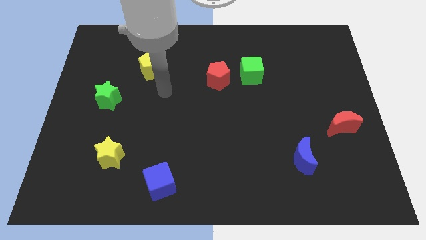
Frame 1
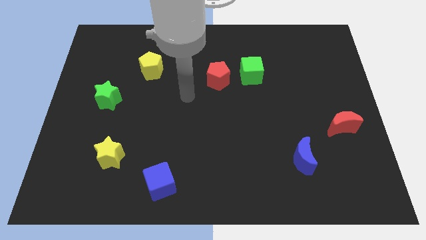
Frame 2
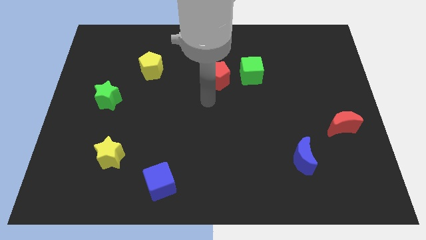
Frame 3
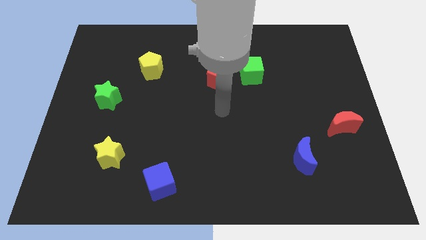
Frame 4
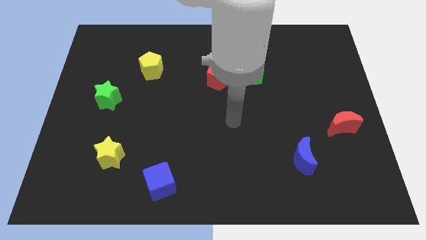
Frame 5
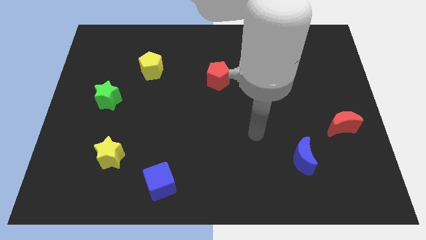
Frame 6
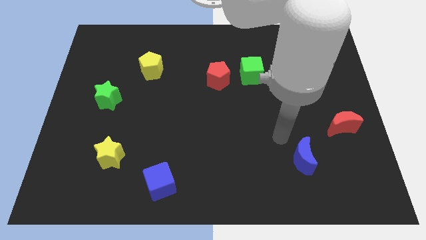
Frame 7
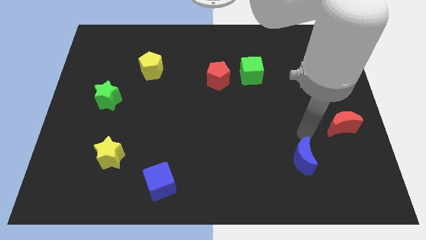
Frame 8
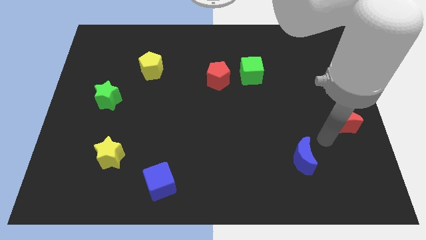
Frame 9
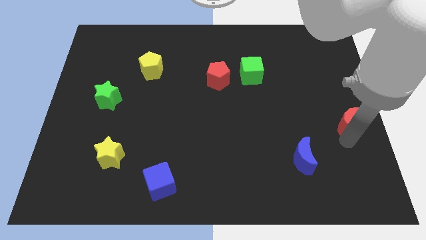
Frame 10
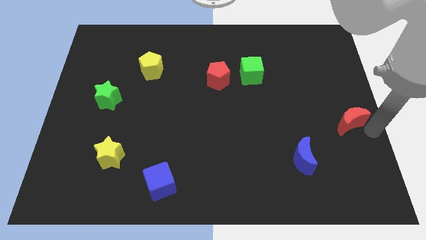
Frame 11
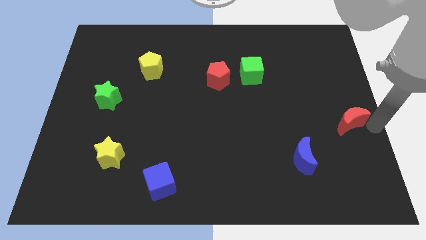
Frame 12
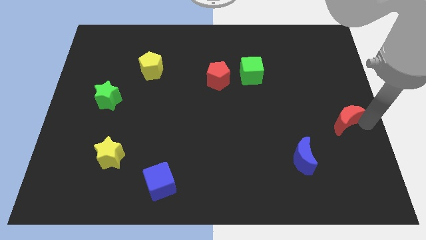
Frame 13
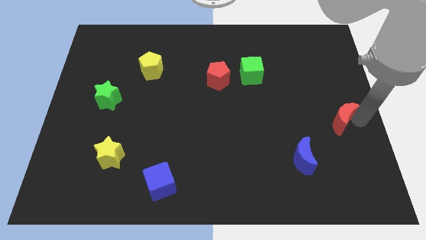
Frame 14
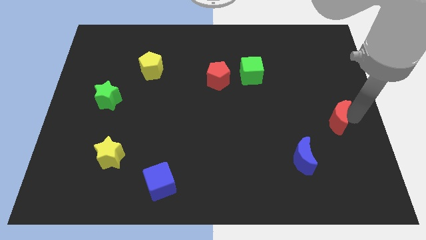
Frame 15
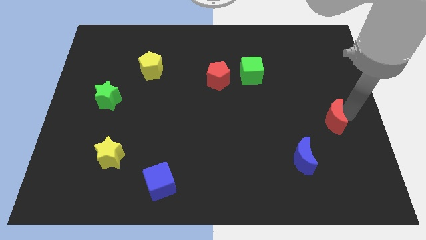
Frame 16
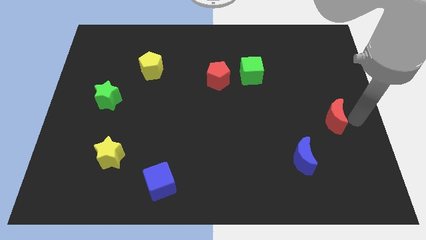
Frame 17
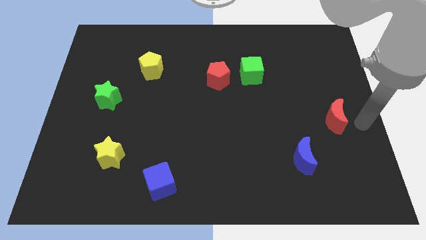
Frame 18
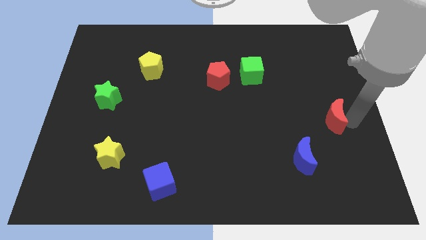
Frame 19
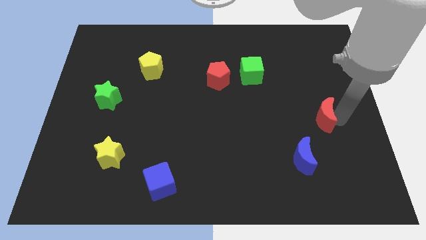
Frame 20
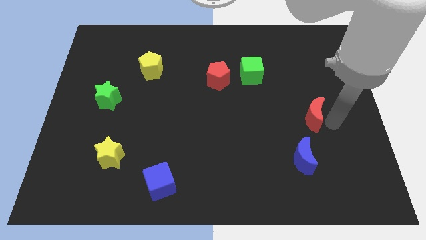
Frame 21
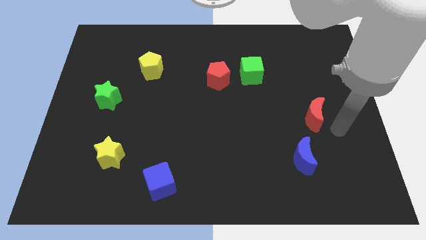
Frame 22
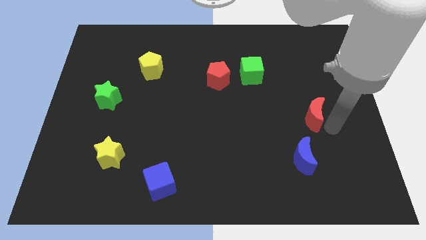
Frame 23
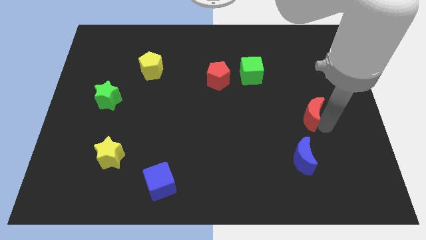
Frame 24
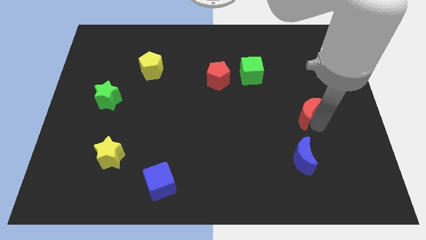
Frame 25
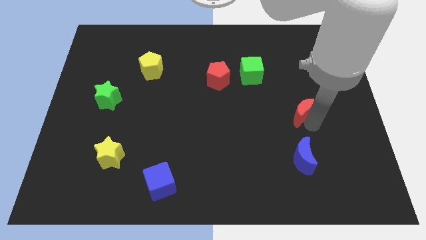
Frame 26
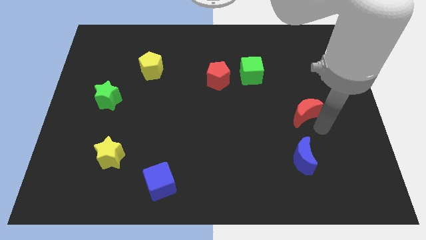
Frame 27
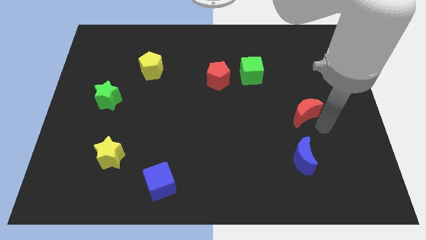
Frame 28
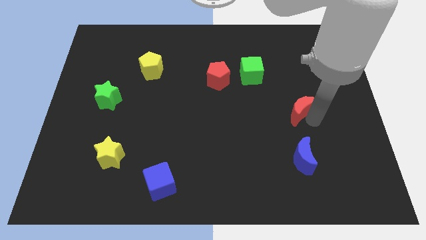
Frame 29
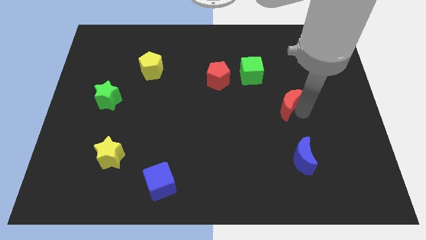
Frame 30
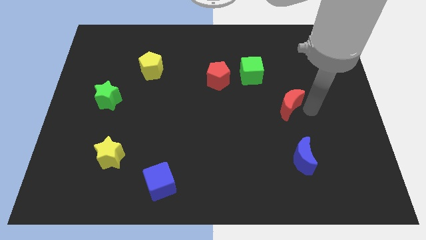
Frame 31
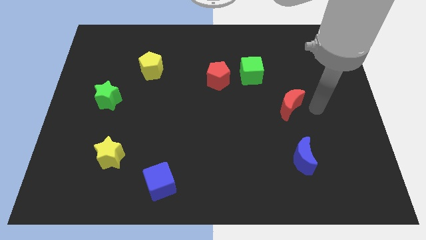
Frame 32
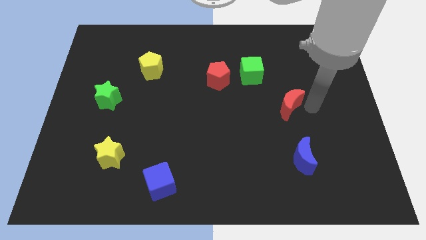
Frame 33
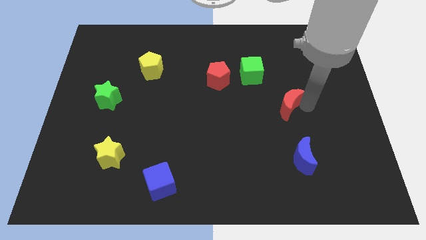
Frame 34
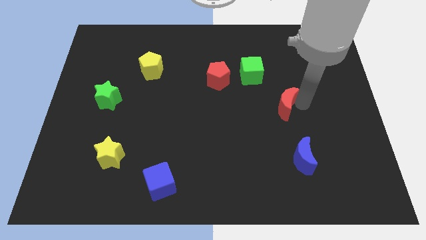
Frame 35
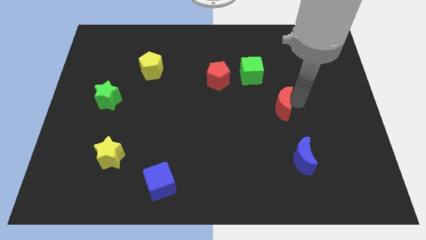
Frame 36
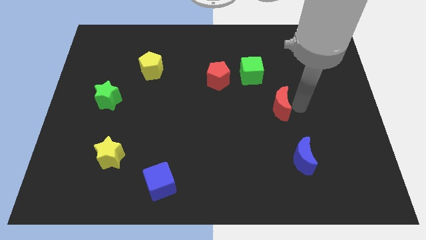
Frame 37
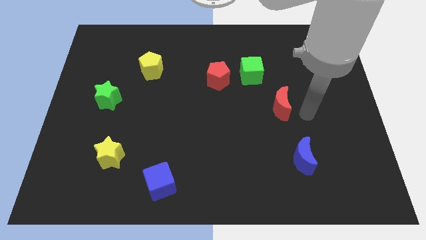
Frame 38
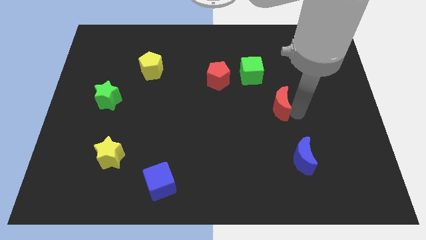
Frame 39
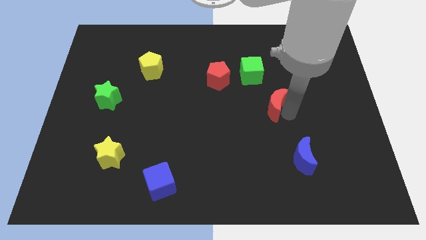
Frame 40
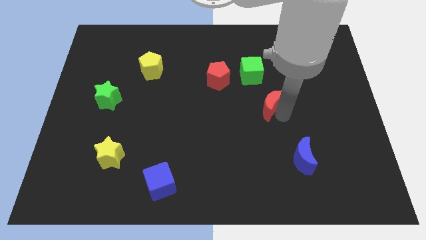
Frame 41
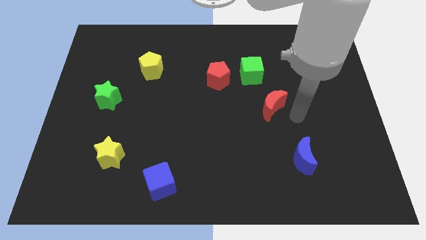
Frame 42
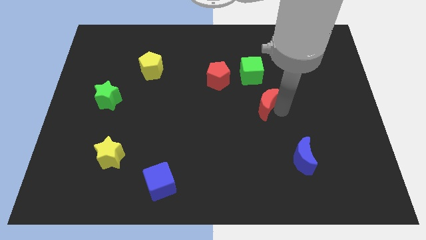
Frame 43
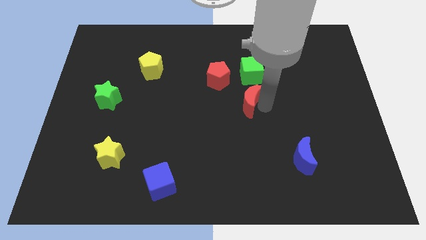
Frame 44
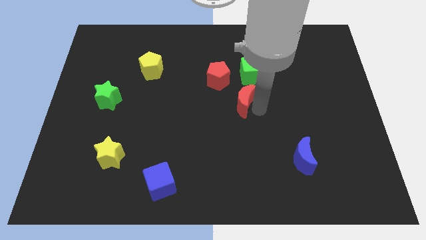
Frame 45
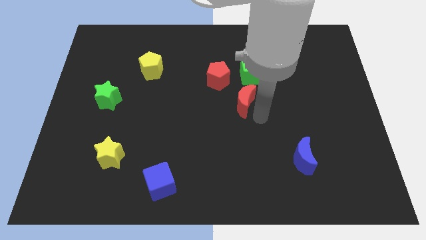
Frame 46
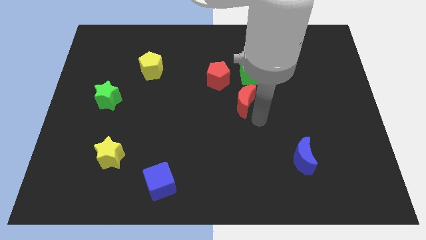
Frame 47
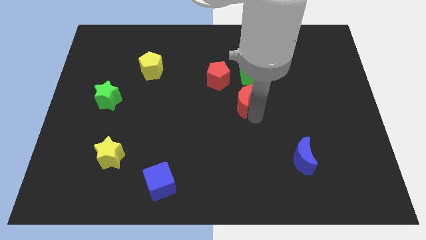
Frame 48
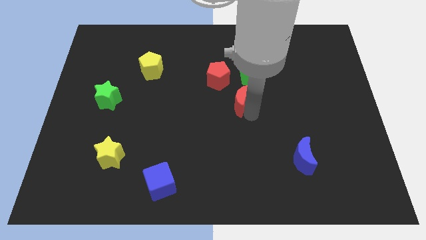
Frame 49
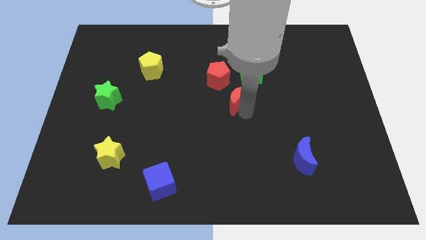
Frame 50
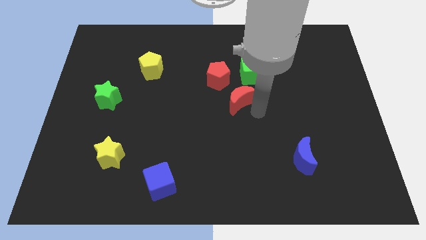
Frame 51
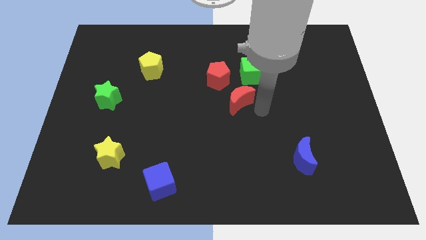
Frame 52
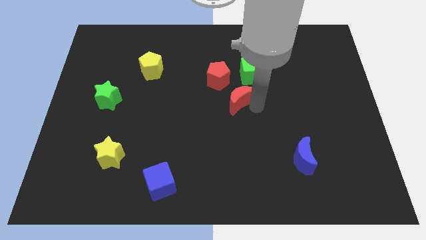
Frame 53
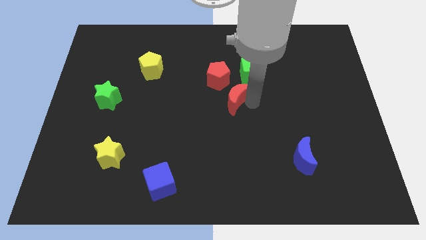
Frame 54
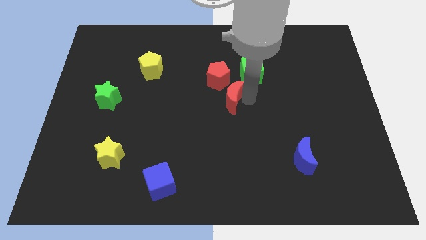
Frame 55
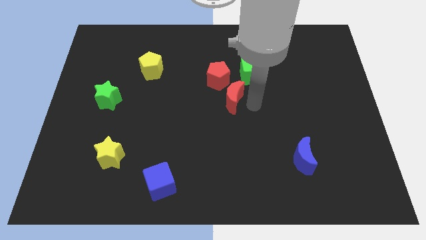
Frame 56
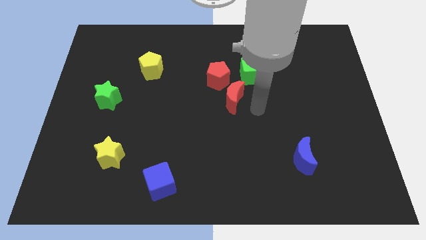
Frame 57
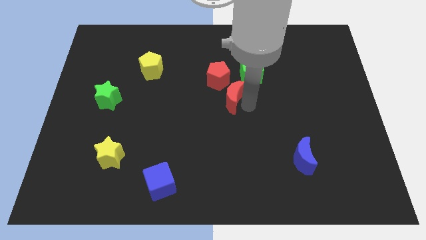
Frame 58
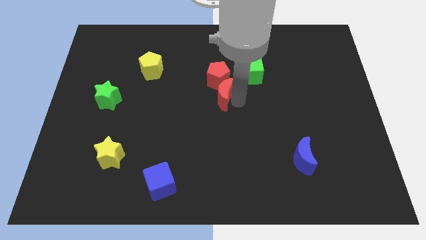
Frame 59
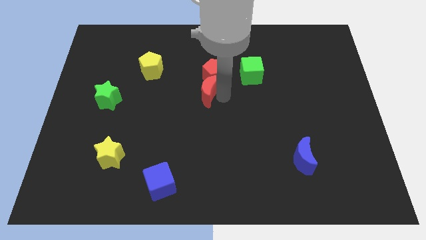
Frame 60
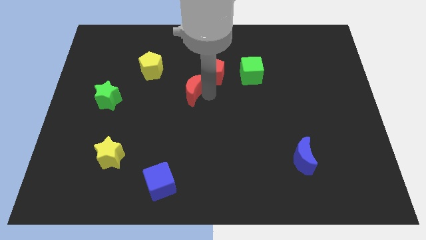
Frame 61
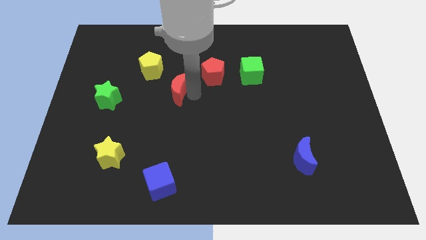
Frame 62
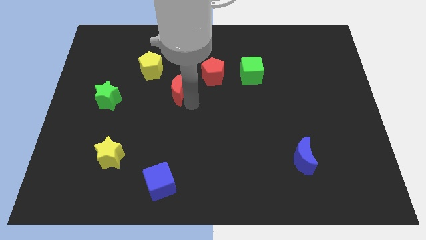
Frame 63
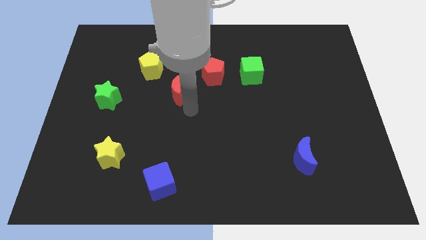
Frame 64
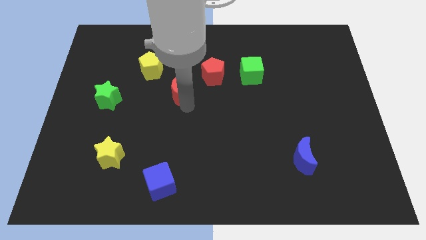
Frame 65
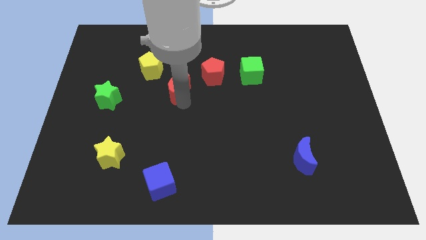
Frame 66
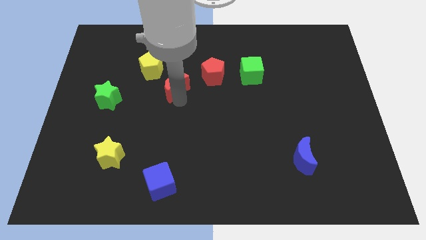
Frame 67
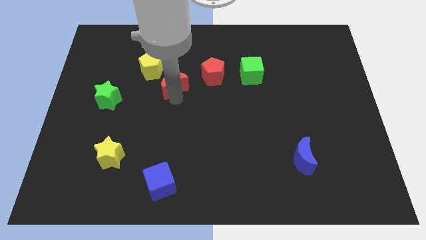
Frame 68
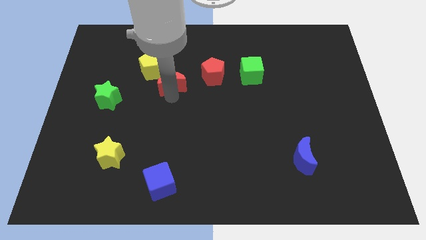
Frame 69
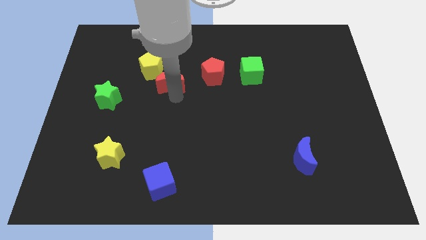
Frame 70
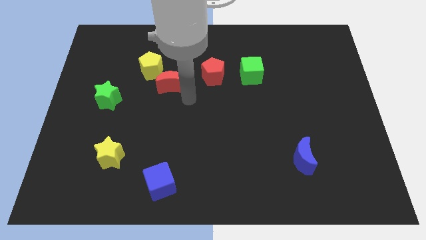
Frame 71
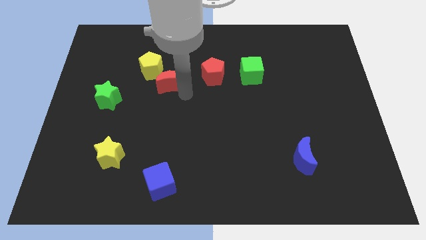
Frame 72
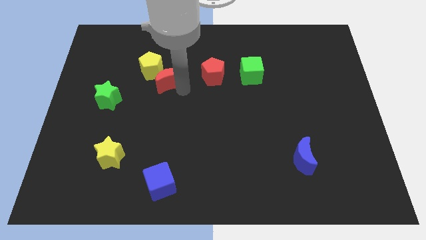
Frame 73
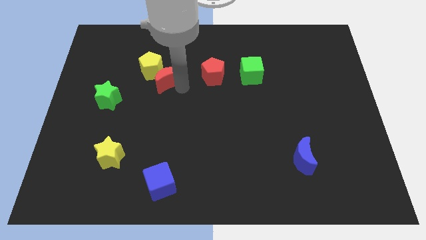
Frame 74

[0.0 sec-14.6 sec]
push the red moon close to the yellow pentagon
